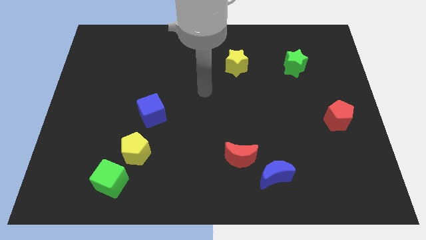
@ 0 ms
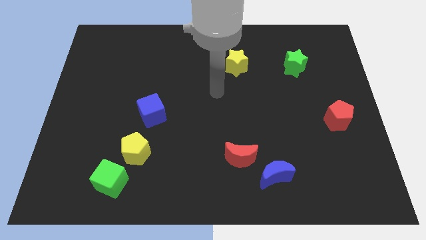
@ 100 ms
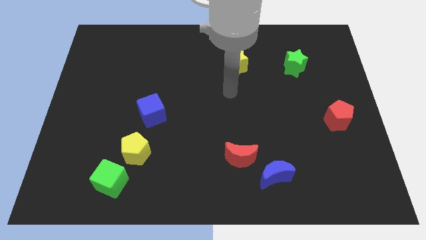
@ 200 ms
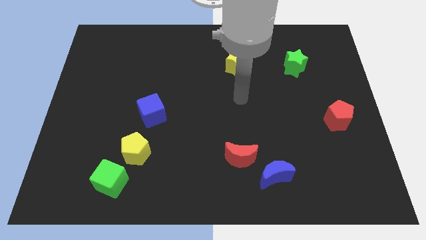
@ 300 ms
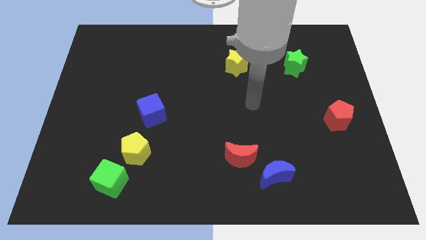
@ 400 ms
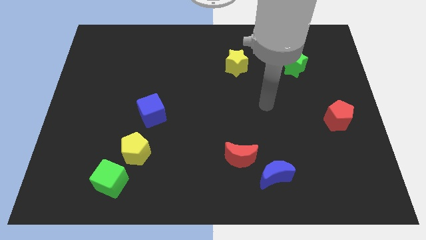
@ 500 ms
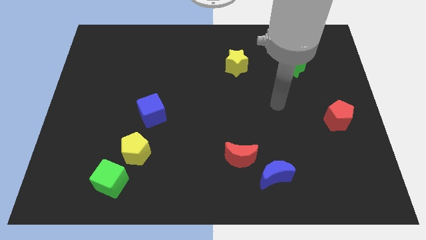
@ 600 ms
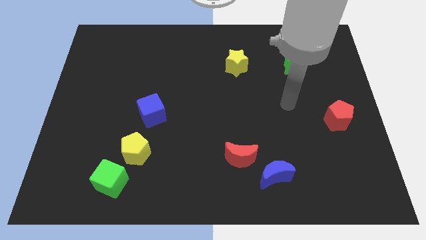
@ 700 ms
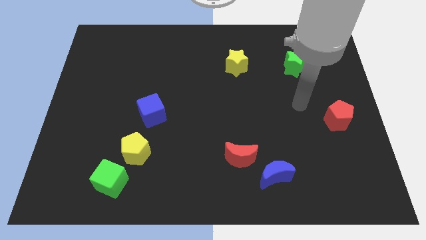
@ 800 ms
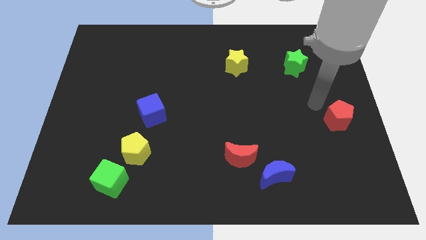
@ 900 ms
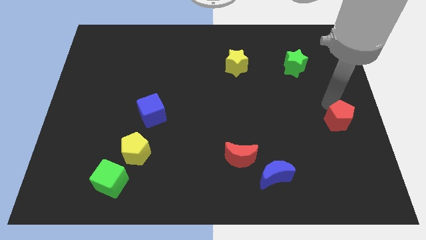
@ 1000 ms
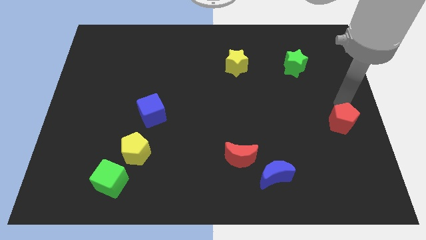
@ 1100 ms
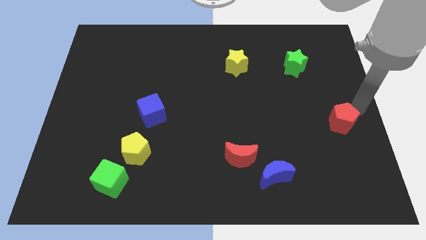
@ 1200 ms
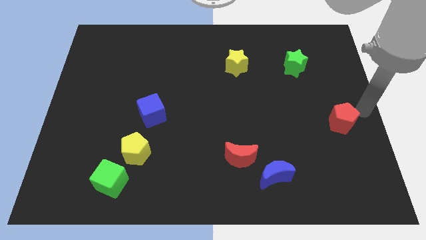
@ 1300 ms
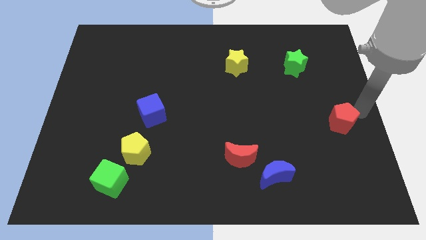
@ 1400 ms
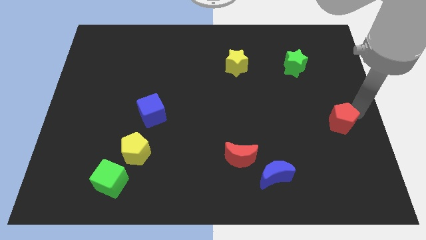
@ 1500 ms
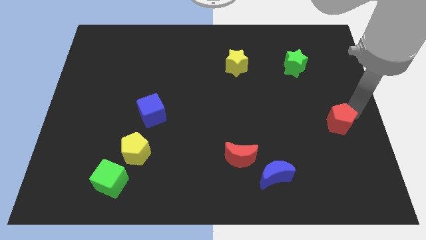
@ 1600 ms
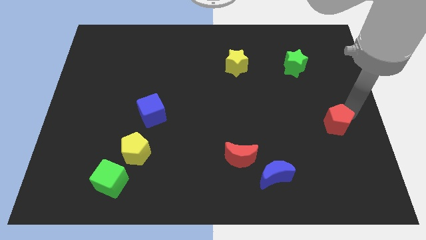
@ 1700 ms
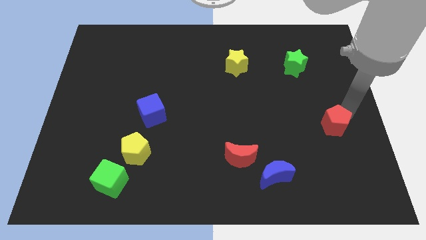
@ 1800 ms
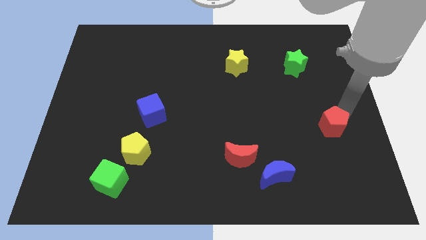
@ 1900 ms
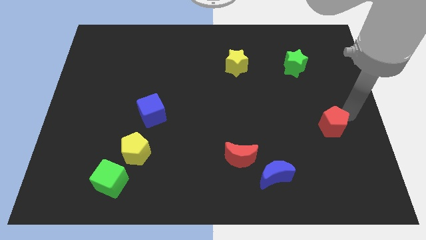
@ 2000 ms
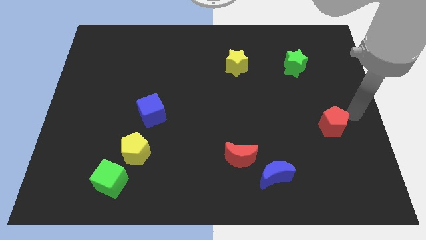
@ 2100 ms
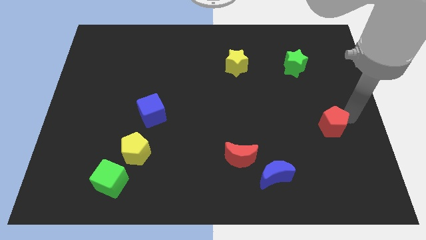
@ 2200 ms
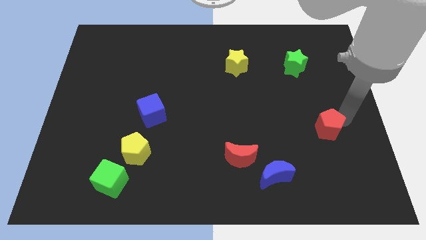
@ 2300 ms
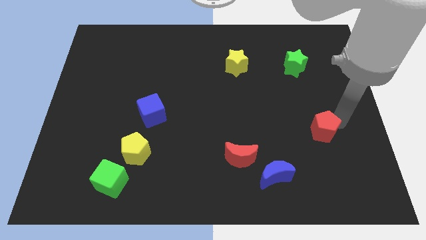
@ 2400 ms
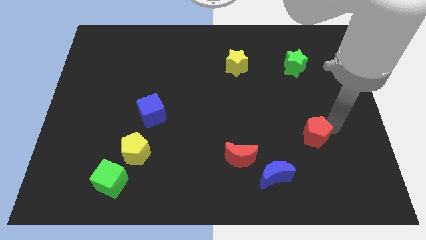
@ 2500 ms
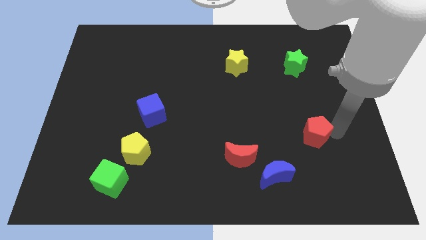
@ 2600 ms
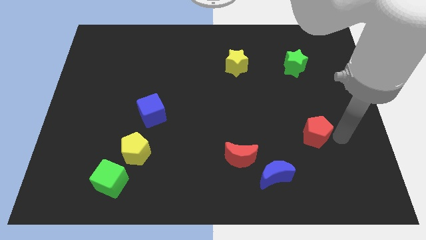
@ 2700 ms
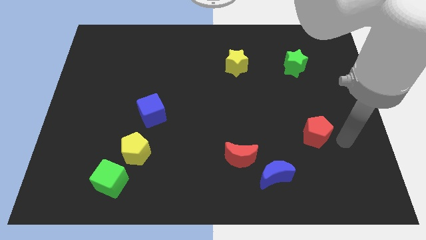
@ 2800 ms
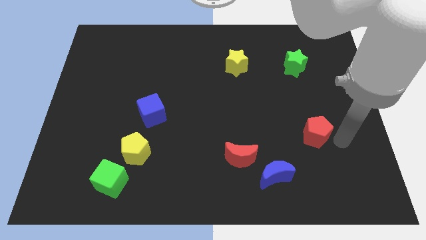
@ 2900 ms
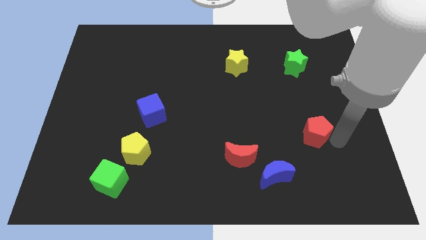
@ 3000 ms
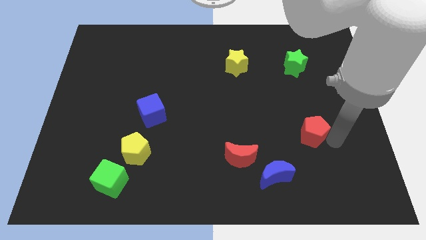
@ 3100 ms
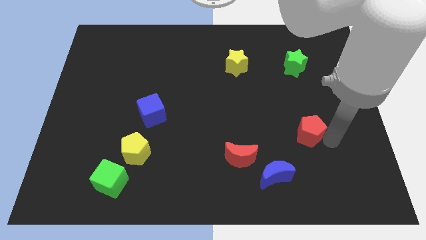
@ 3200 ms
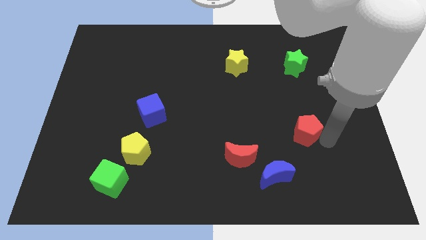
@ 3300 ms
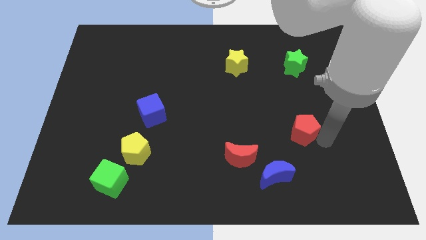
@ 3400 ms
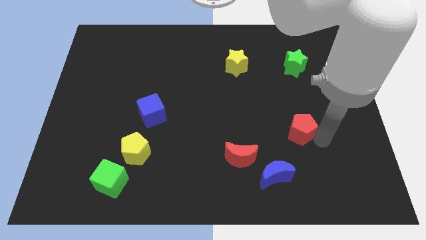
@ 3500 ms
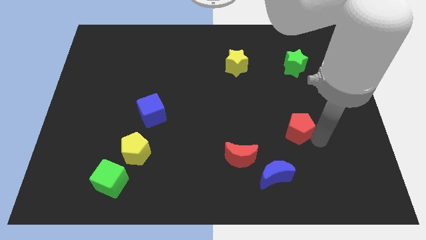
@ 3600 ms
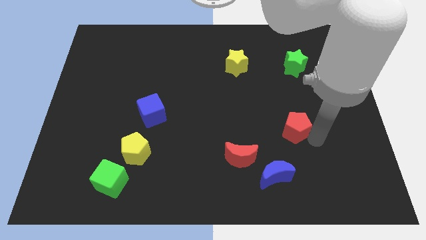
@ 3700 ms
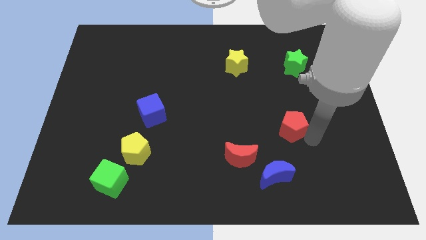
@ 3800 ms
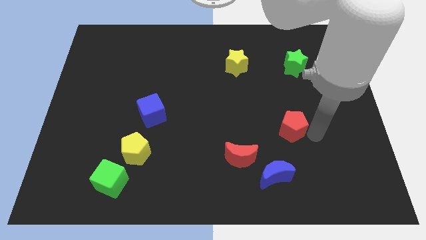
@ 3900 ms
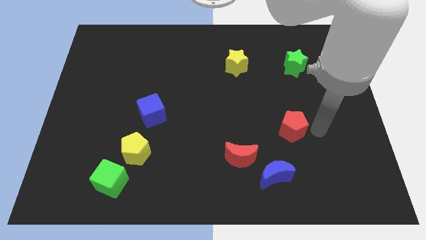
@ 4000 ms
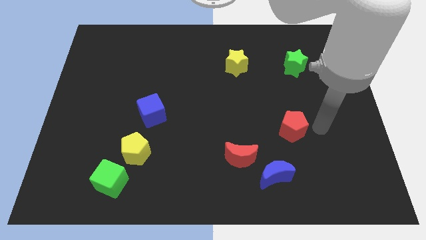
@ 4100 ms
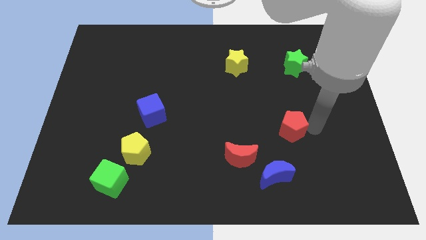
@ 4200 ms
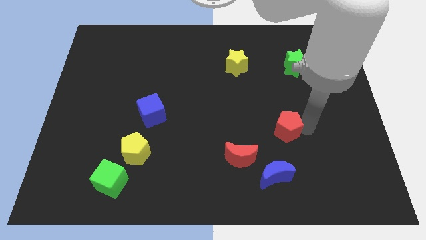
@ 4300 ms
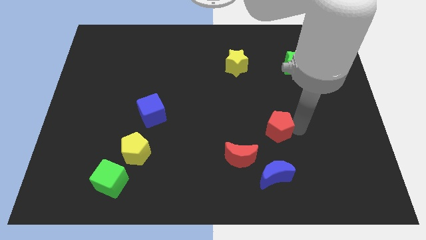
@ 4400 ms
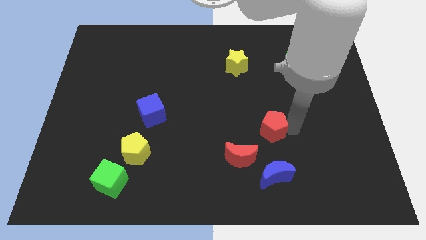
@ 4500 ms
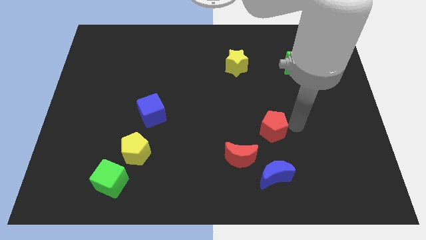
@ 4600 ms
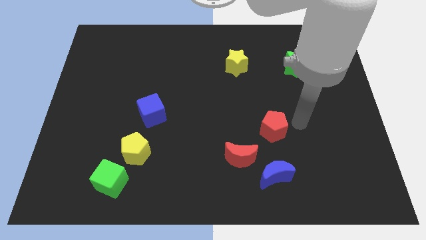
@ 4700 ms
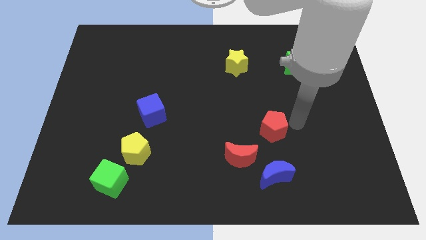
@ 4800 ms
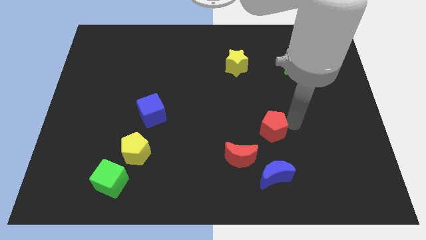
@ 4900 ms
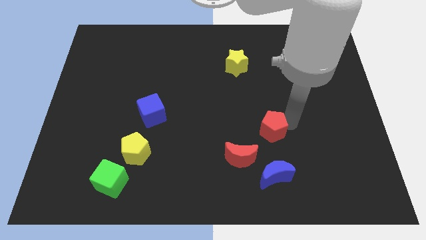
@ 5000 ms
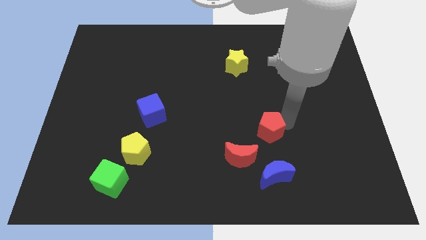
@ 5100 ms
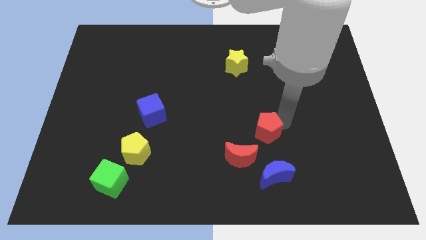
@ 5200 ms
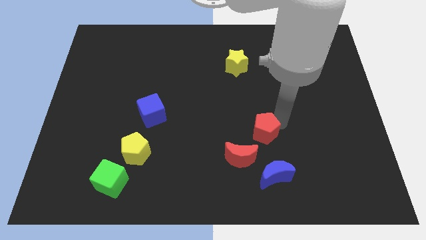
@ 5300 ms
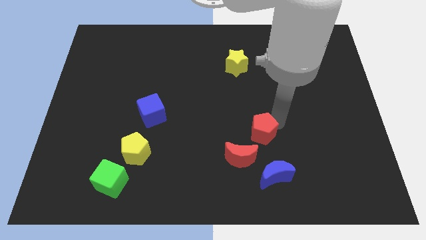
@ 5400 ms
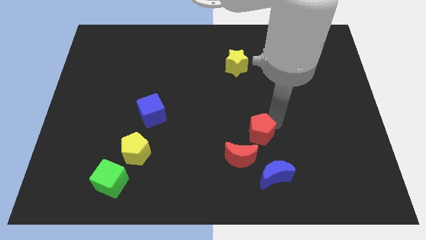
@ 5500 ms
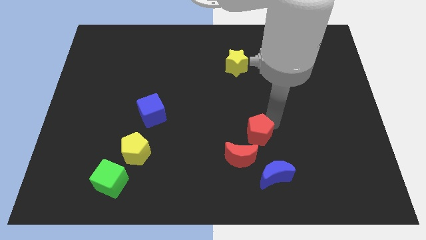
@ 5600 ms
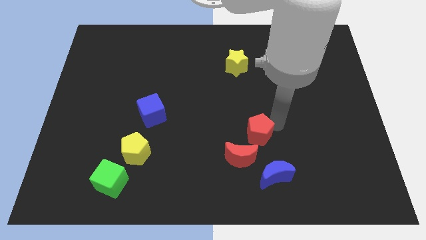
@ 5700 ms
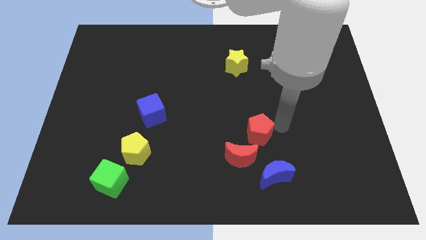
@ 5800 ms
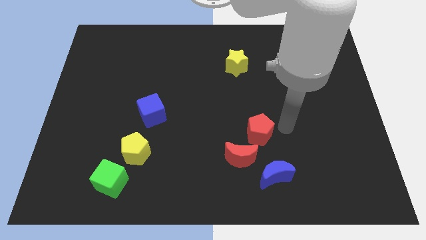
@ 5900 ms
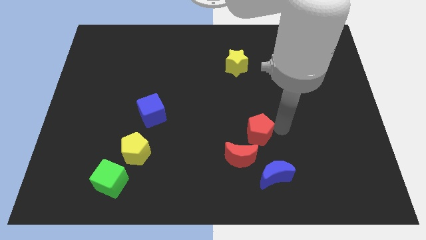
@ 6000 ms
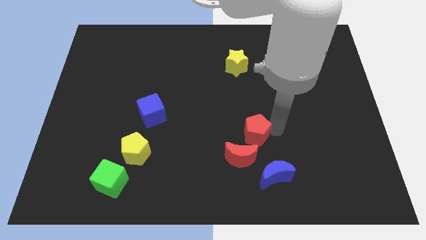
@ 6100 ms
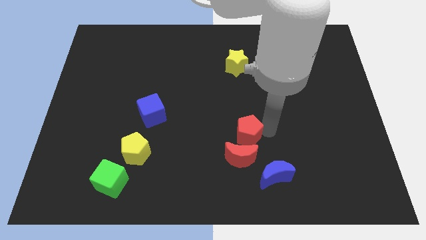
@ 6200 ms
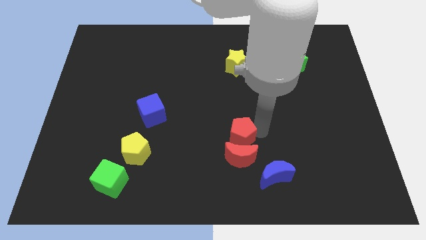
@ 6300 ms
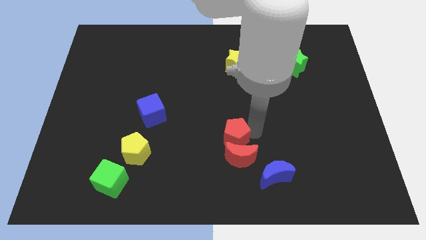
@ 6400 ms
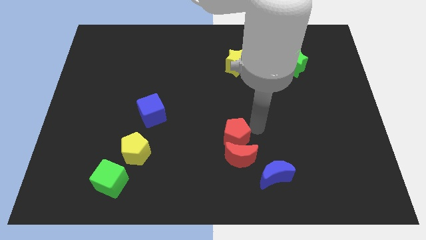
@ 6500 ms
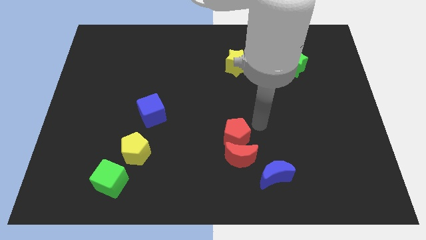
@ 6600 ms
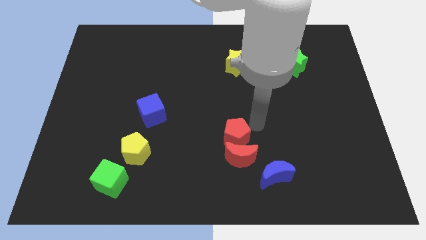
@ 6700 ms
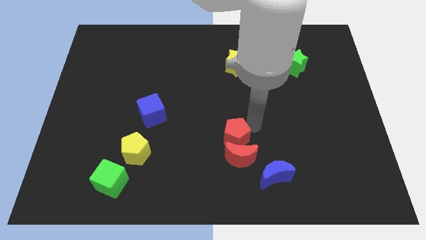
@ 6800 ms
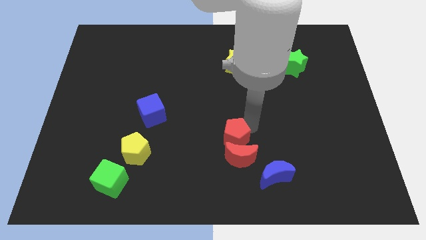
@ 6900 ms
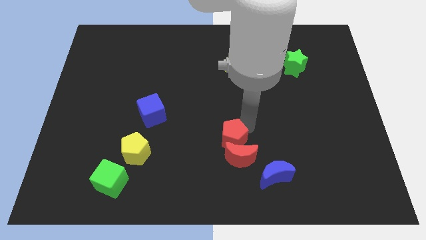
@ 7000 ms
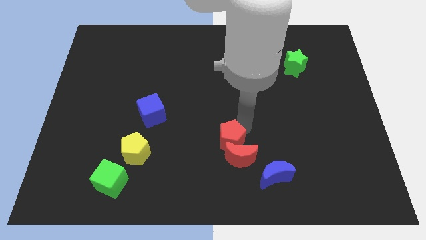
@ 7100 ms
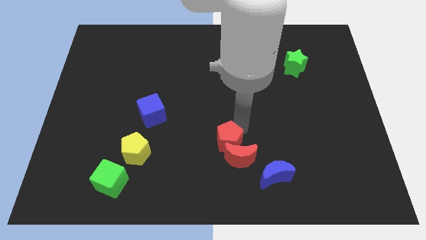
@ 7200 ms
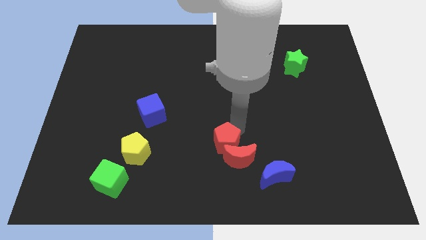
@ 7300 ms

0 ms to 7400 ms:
move the red pentagon to the left side of the red moon
